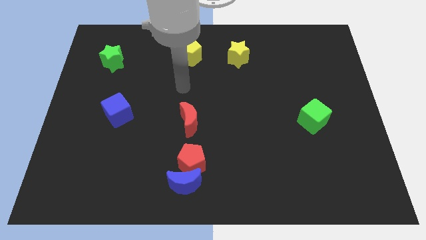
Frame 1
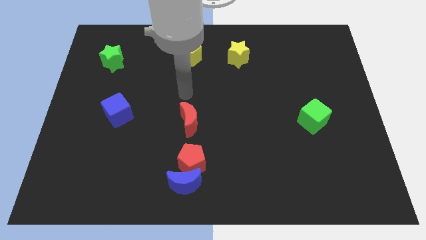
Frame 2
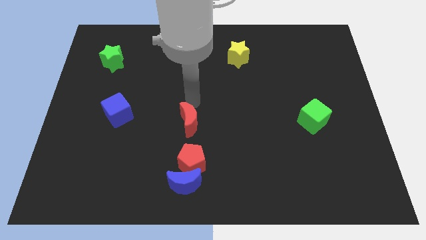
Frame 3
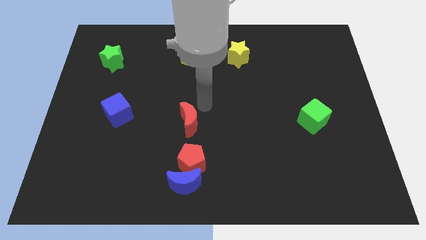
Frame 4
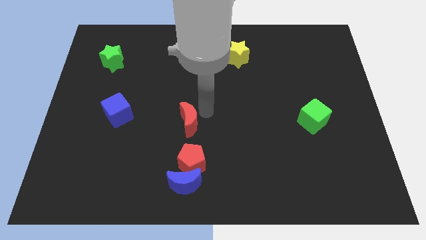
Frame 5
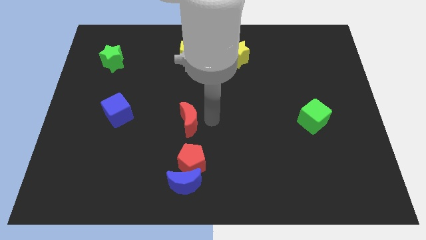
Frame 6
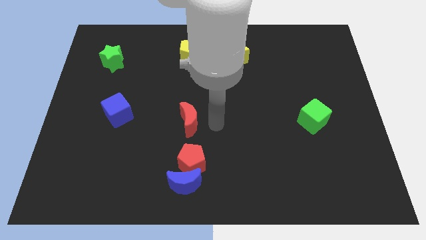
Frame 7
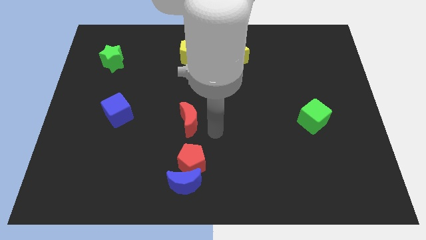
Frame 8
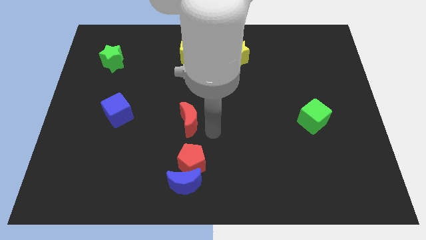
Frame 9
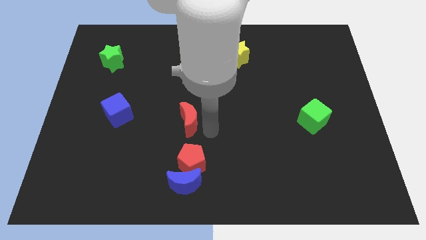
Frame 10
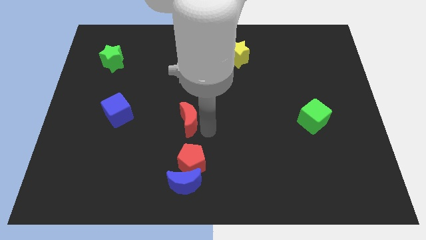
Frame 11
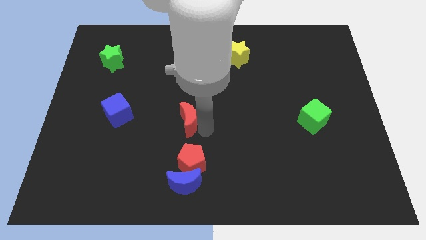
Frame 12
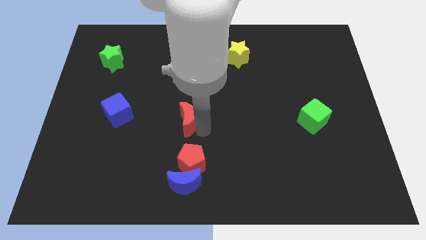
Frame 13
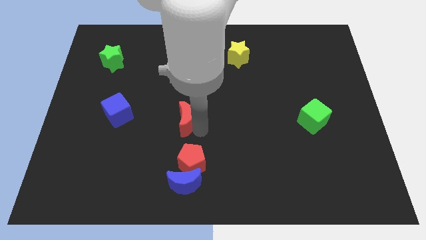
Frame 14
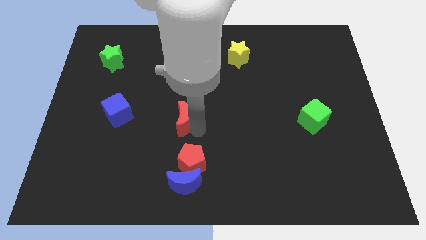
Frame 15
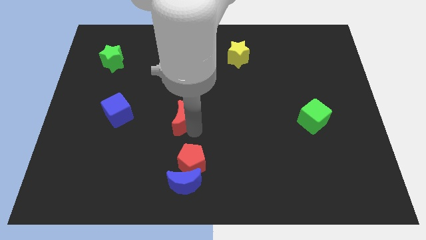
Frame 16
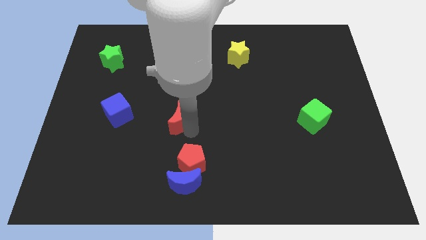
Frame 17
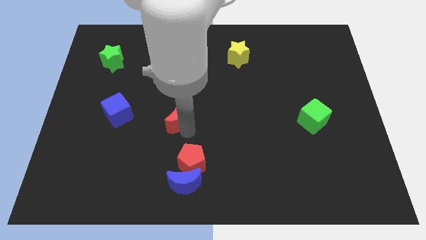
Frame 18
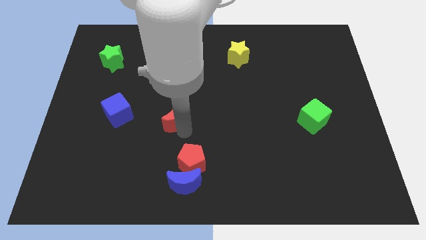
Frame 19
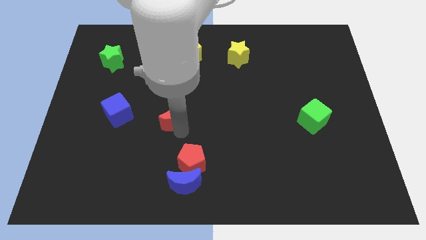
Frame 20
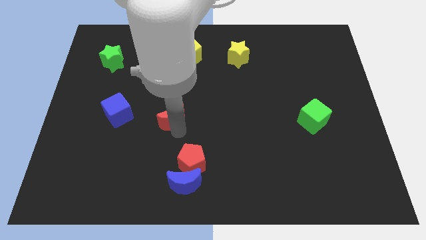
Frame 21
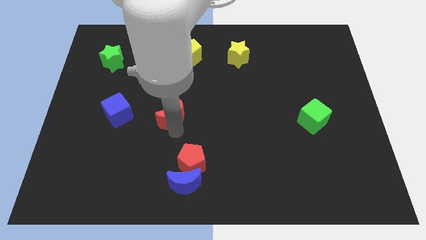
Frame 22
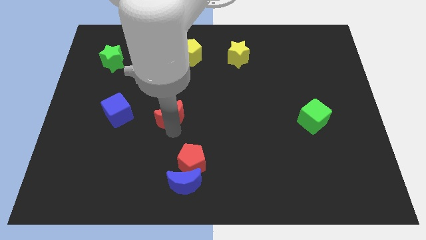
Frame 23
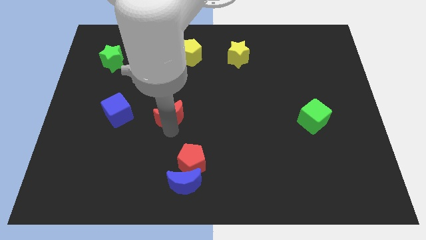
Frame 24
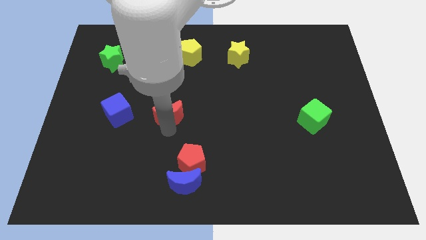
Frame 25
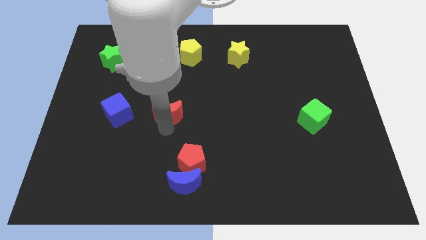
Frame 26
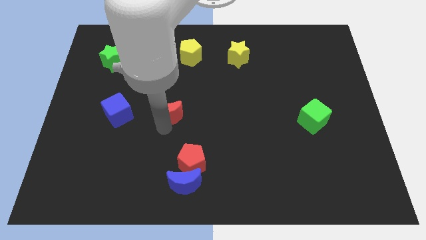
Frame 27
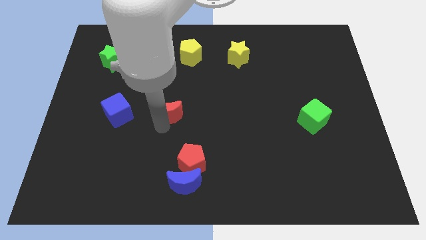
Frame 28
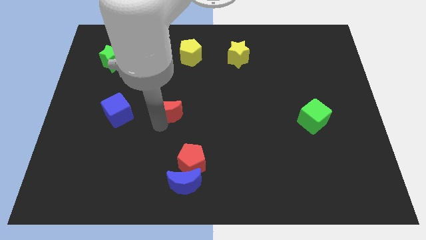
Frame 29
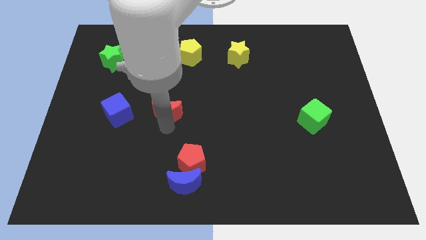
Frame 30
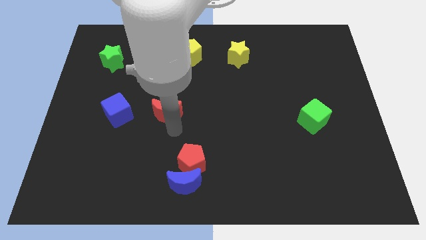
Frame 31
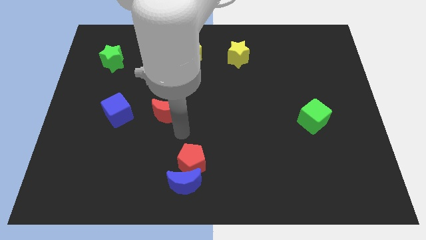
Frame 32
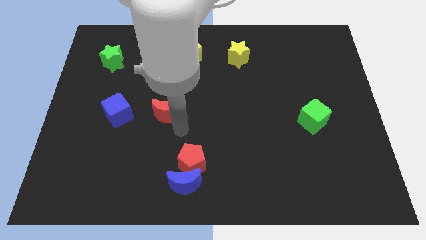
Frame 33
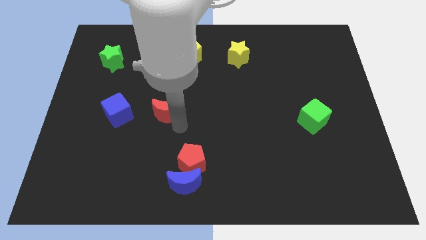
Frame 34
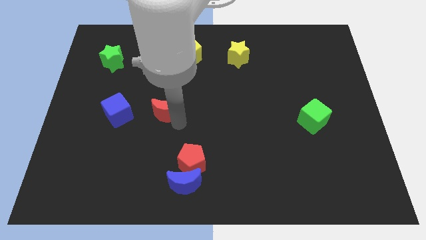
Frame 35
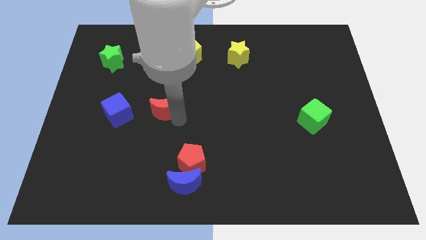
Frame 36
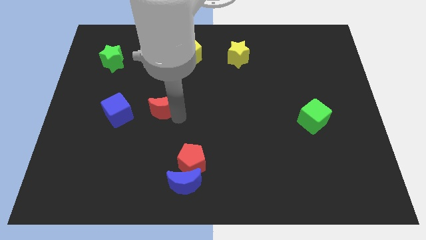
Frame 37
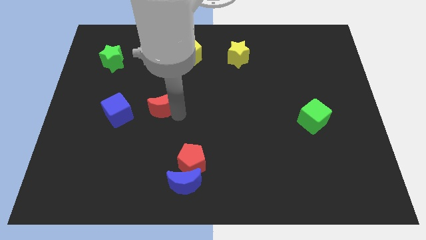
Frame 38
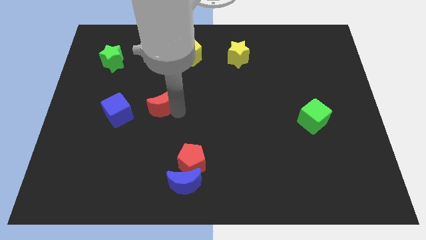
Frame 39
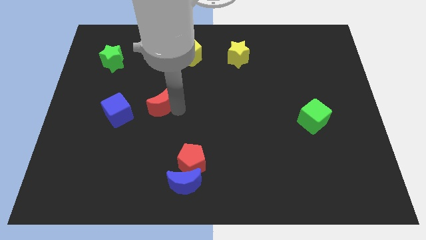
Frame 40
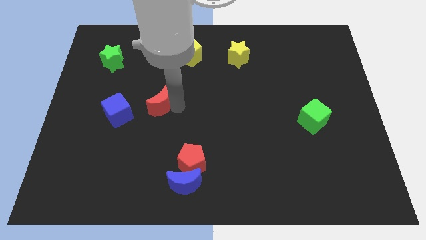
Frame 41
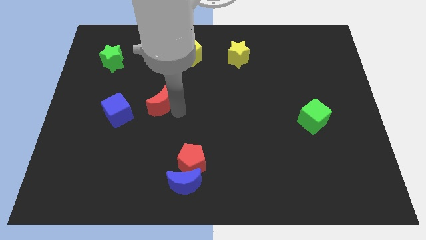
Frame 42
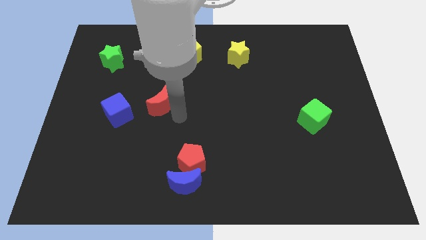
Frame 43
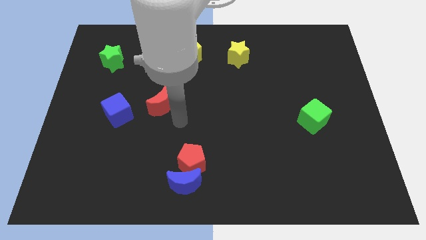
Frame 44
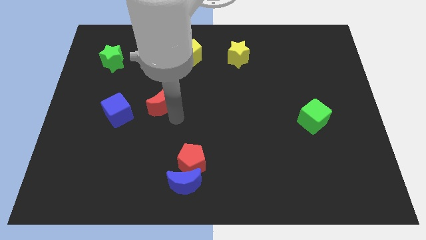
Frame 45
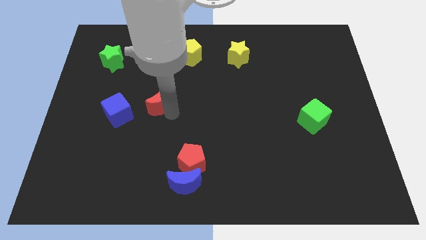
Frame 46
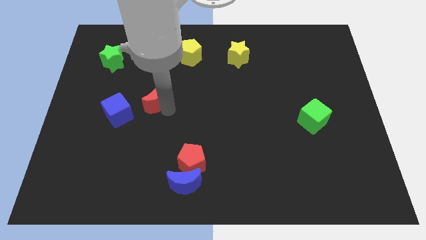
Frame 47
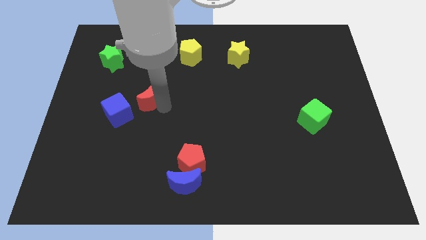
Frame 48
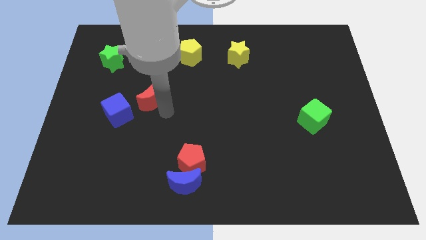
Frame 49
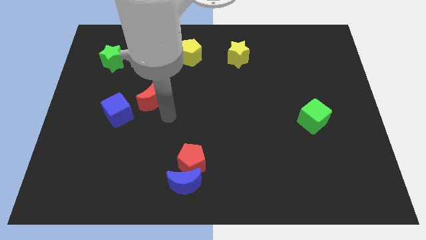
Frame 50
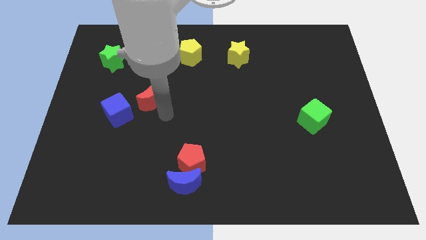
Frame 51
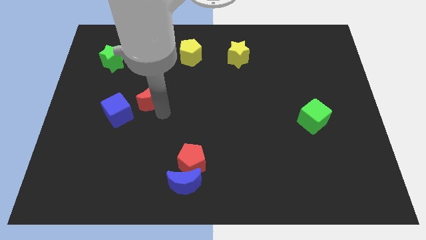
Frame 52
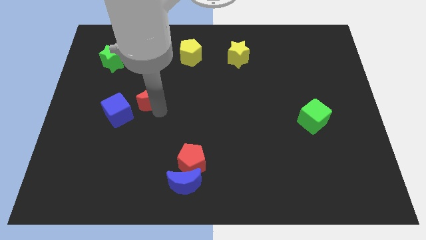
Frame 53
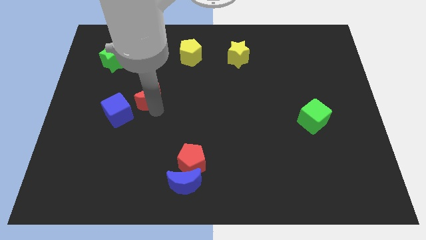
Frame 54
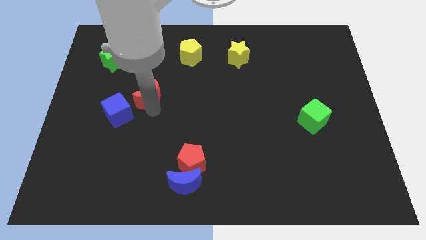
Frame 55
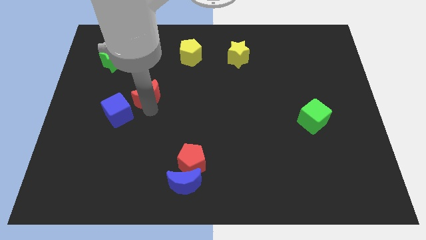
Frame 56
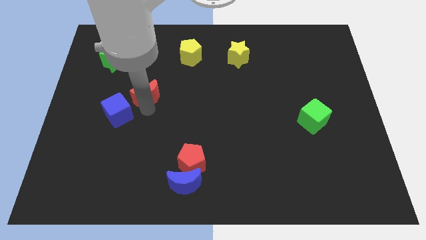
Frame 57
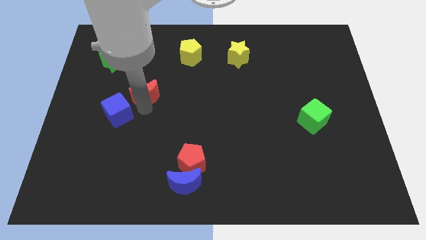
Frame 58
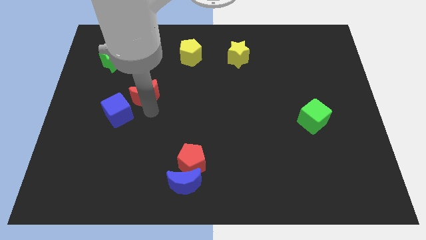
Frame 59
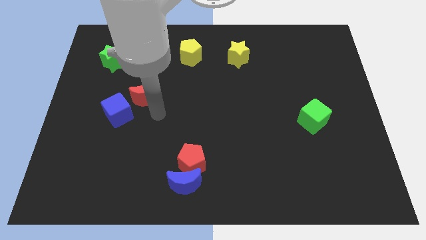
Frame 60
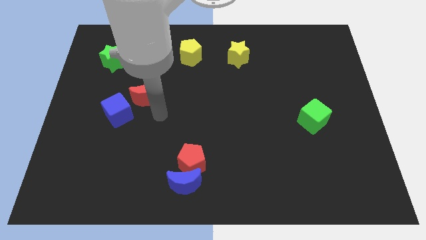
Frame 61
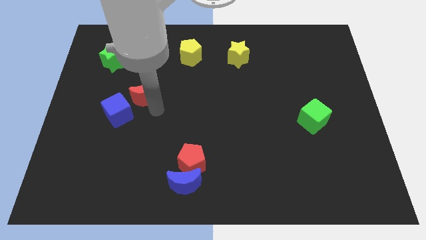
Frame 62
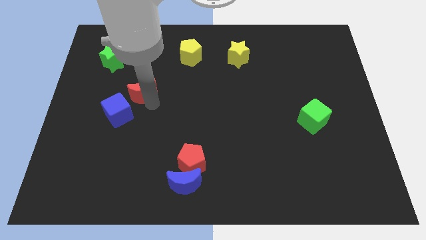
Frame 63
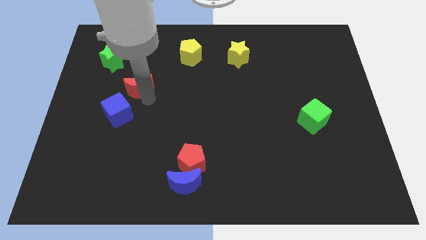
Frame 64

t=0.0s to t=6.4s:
slide the red moon to the bottom right side of the green star

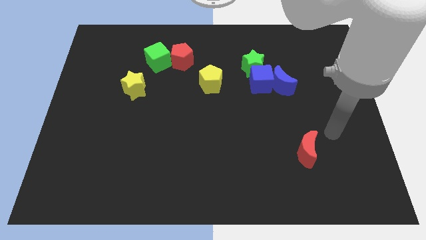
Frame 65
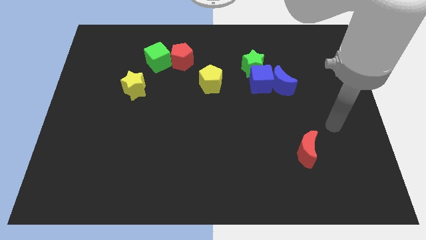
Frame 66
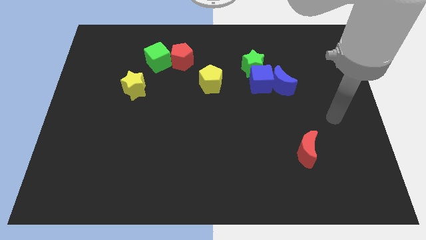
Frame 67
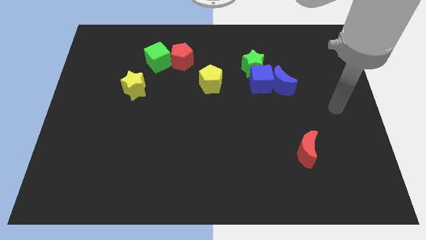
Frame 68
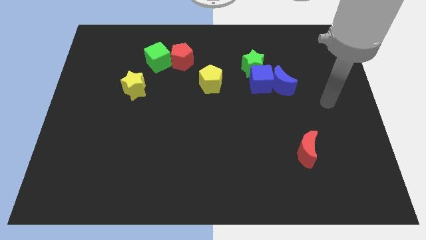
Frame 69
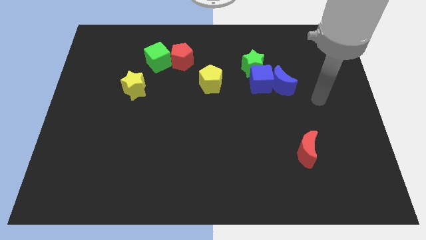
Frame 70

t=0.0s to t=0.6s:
put the green star to the top right of the yellow pentagon
